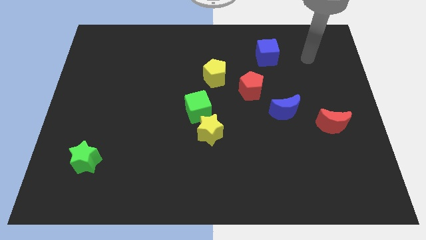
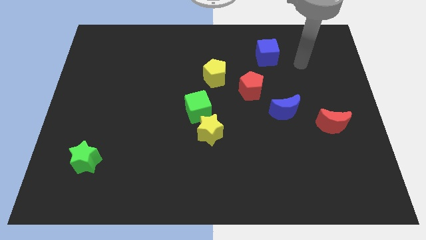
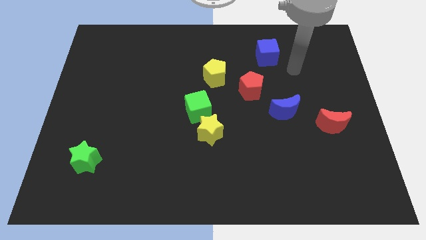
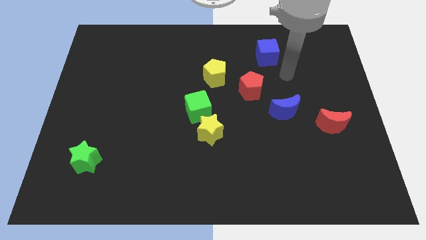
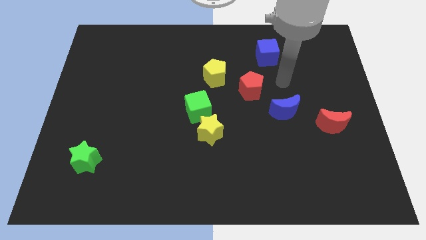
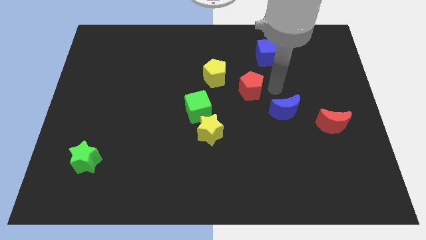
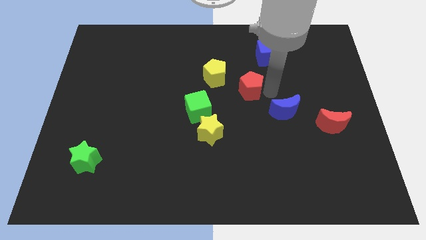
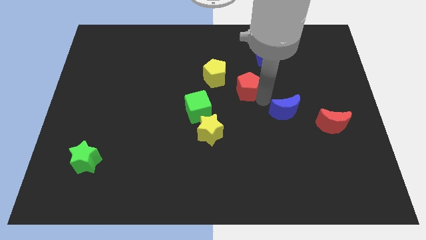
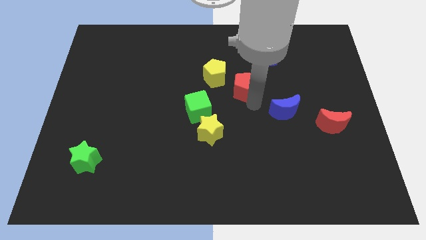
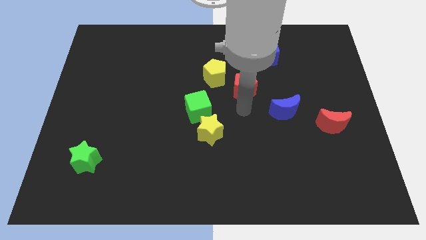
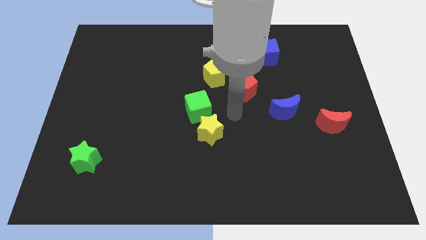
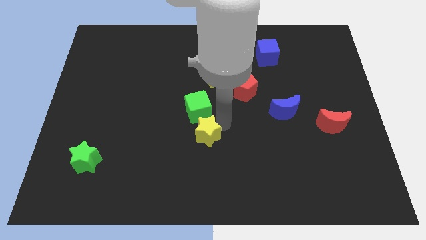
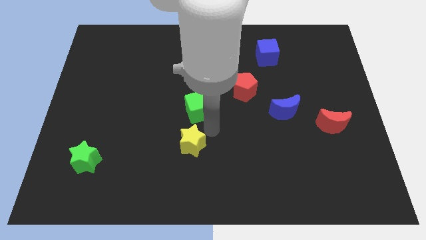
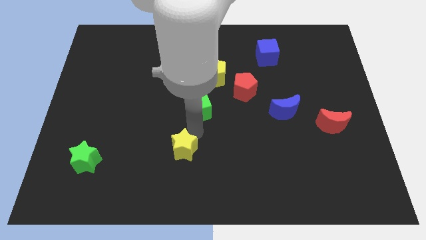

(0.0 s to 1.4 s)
pull the green cube apart from the yellow star

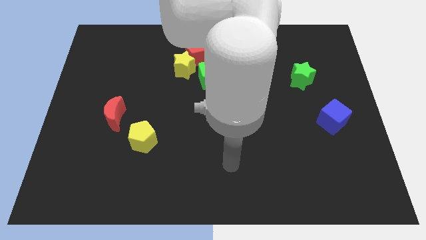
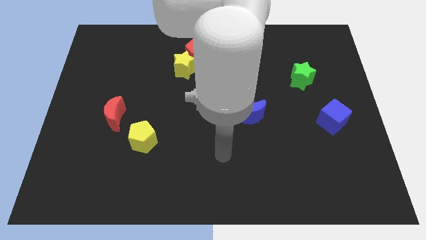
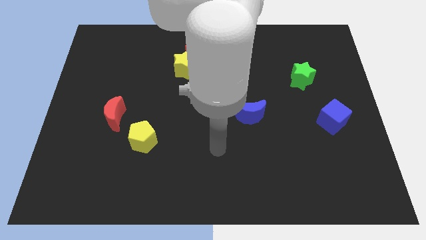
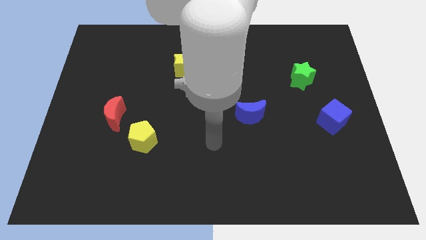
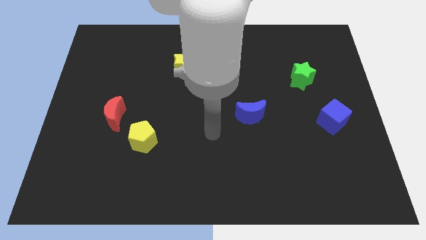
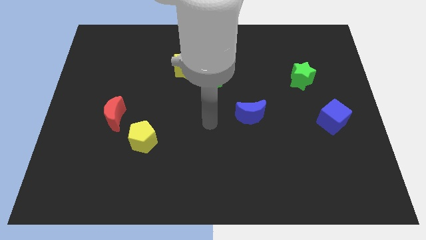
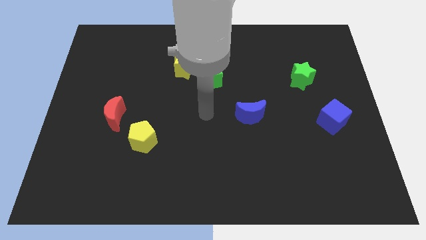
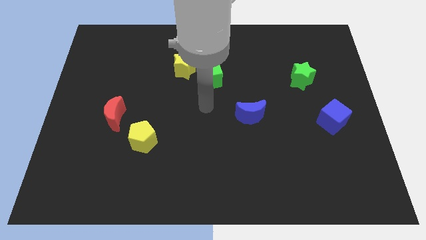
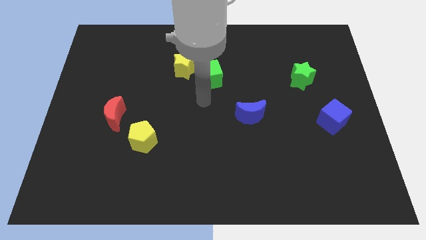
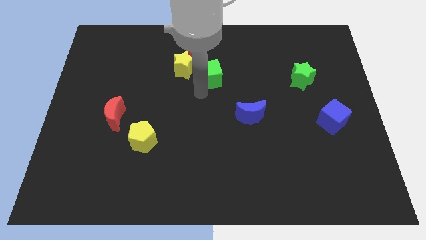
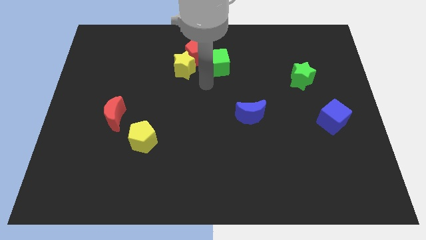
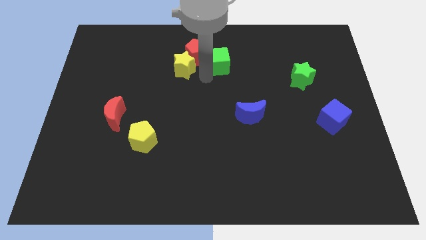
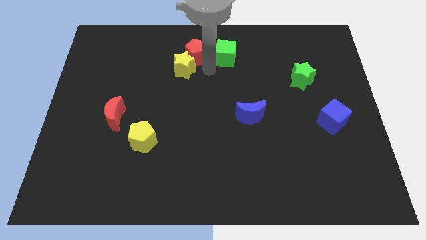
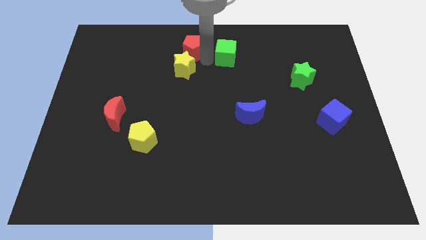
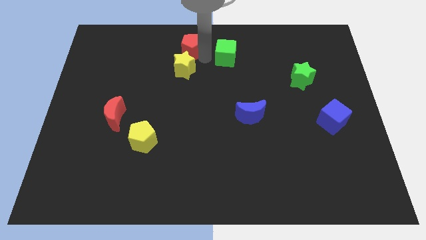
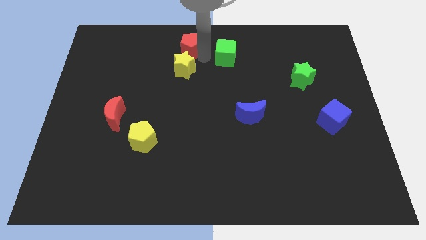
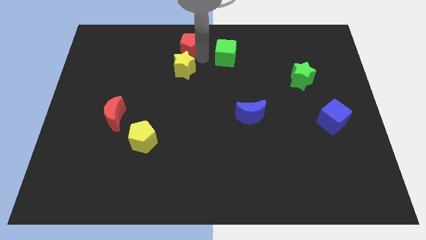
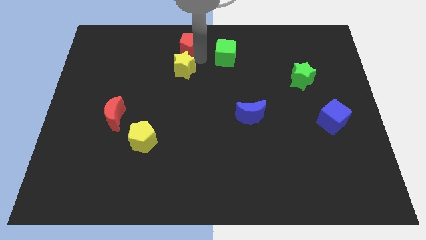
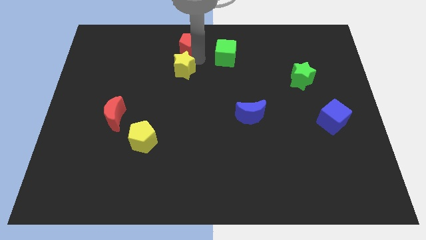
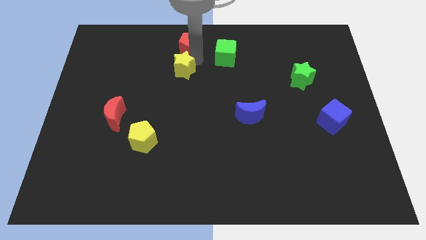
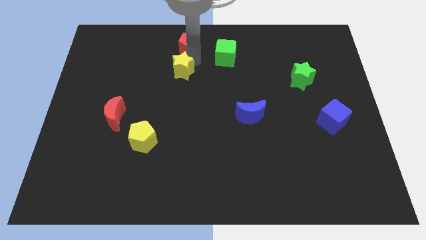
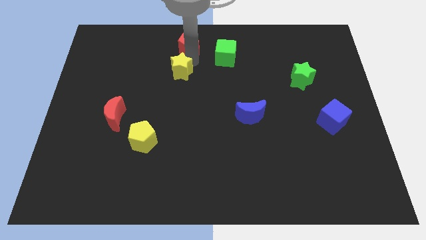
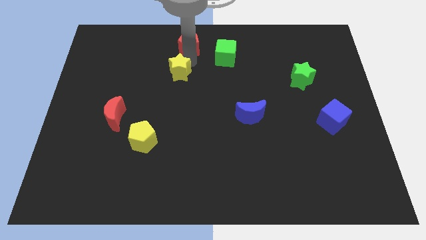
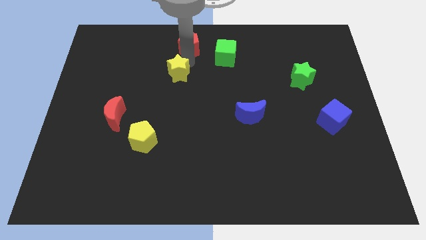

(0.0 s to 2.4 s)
move the yellow star away from the red pentagon and green cube

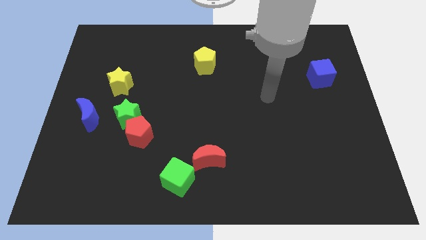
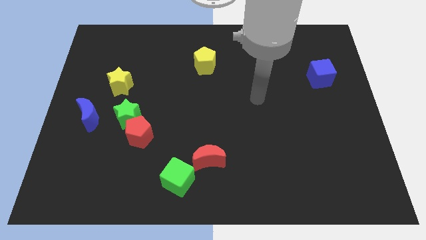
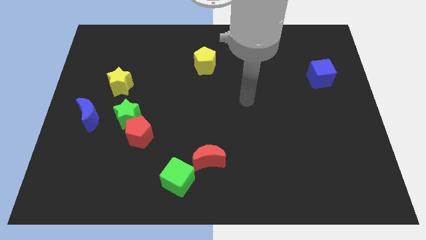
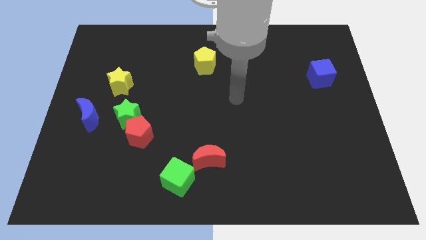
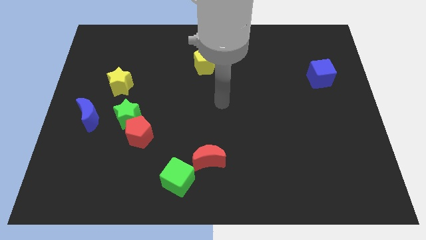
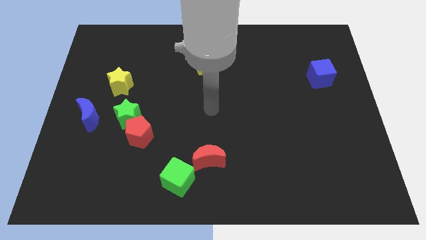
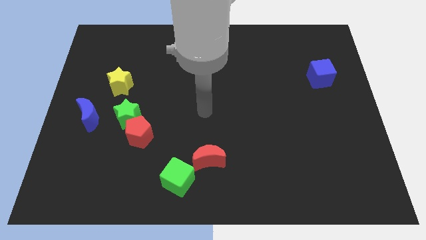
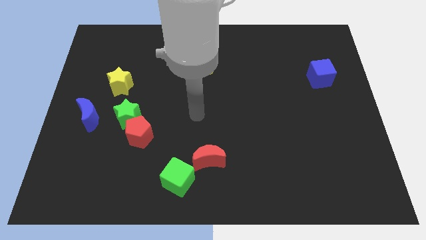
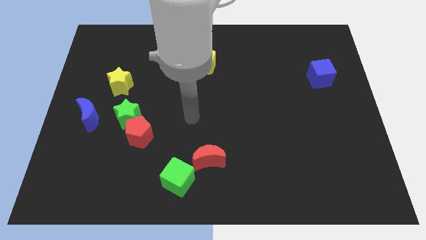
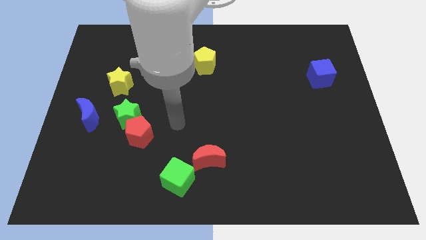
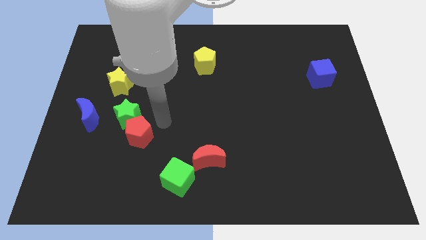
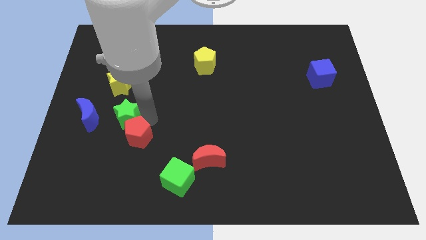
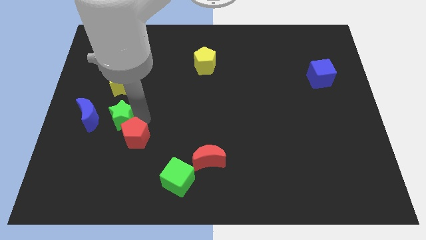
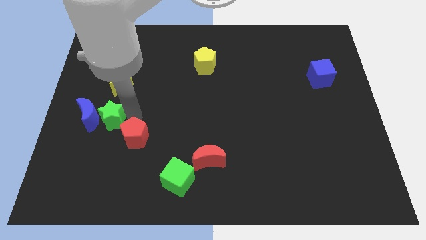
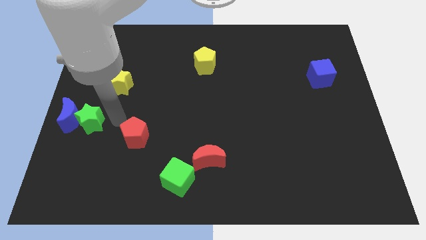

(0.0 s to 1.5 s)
separate the red pentagon from the green star

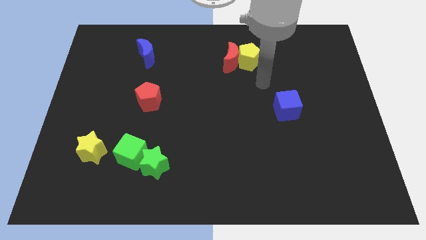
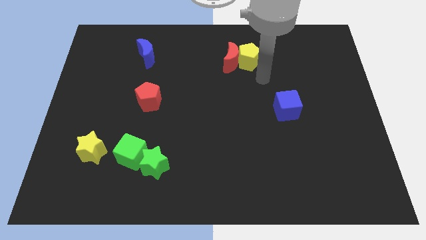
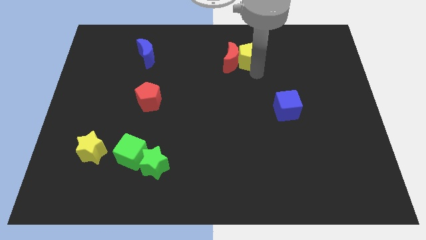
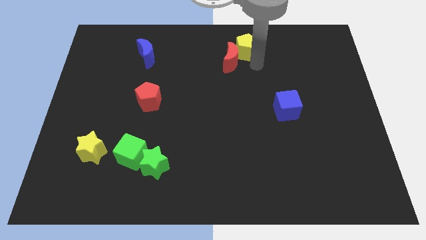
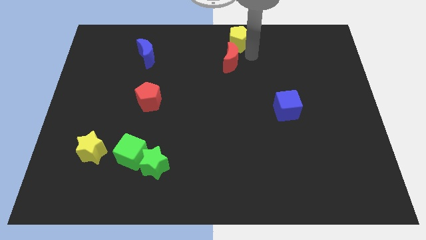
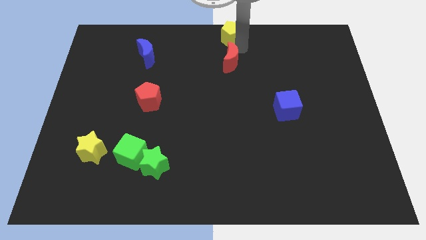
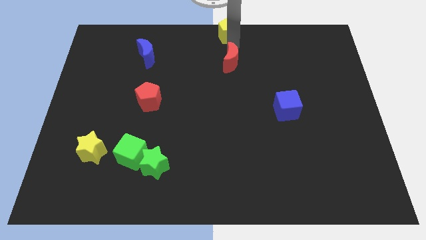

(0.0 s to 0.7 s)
move the red moon away from the yellow pentagon

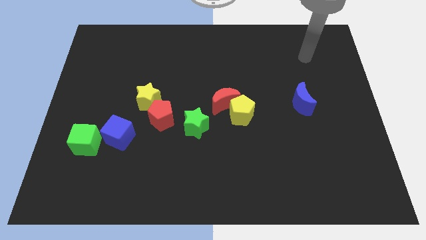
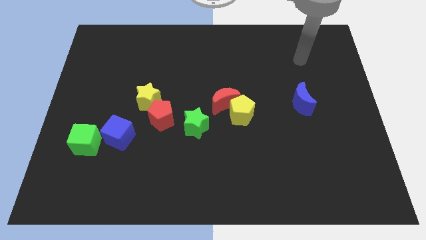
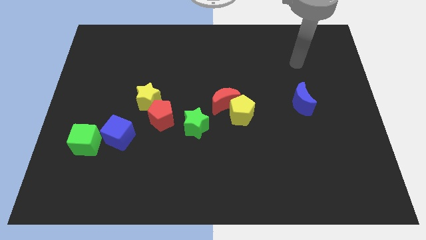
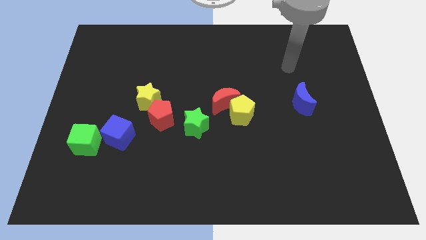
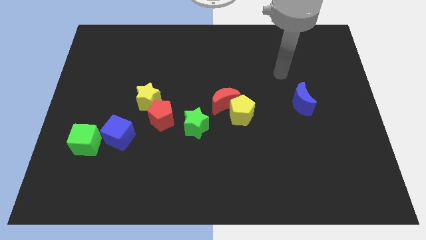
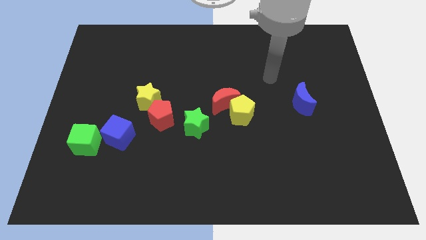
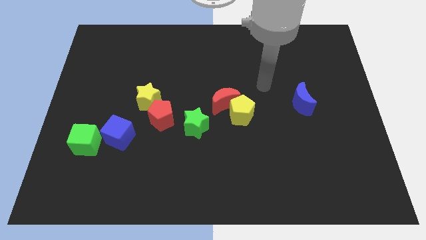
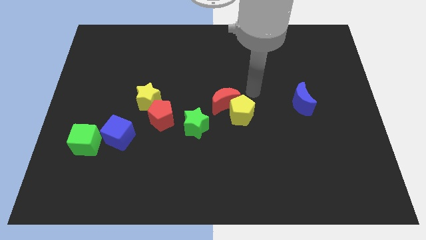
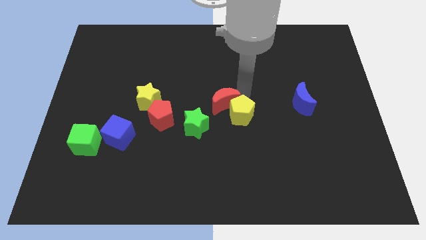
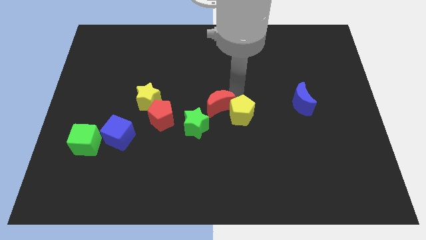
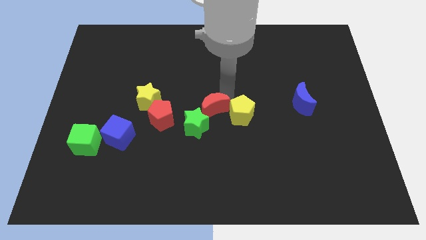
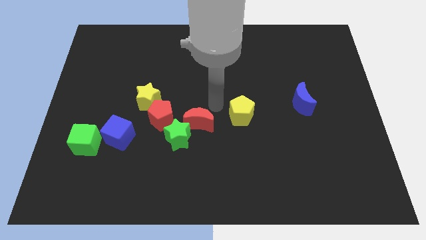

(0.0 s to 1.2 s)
separate the yellow pentagon from the red moon

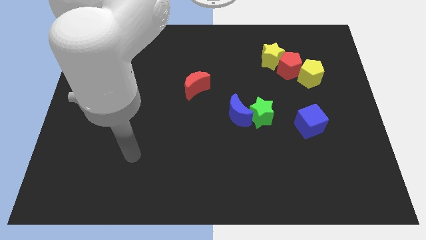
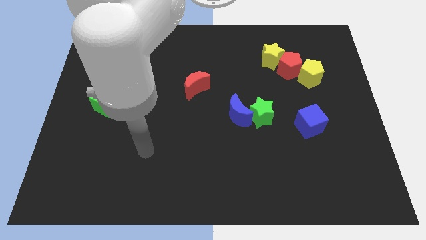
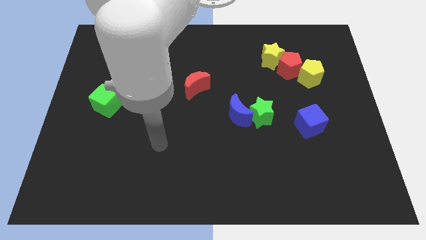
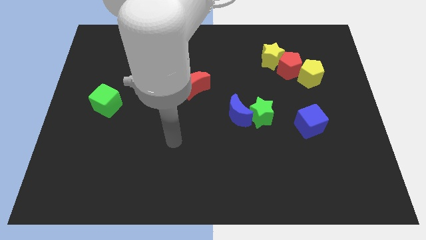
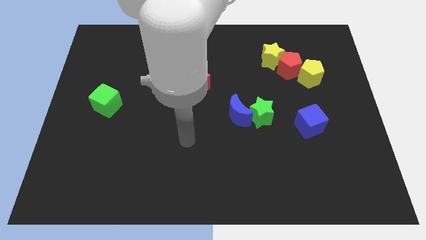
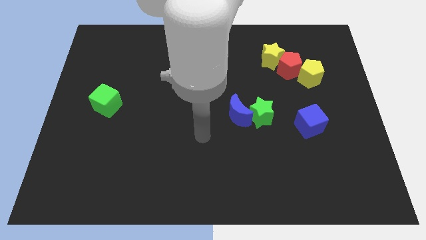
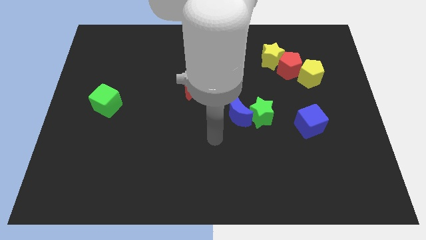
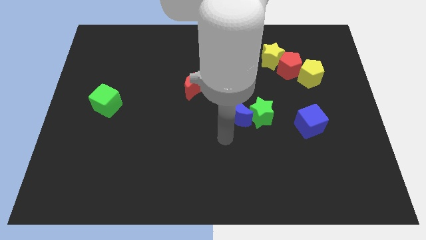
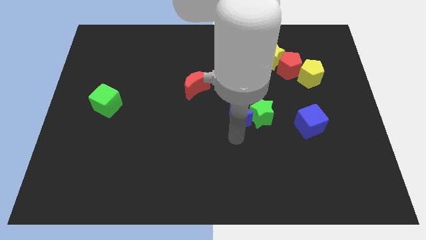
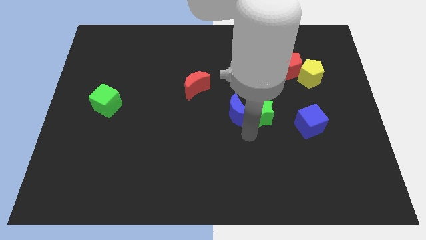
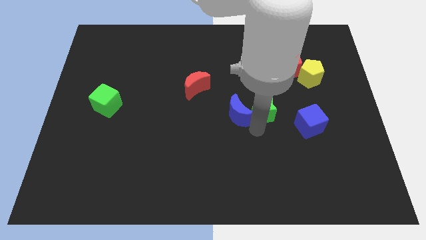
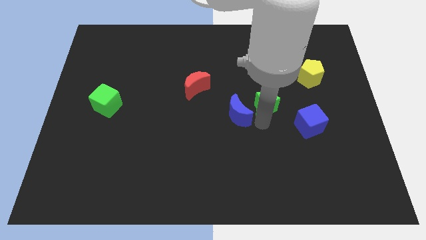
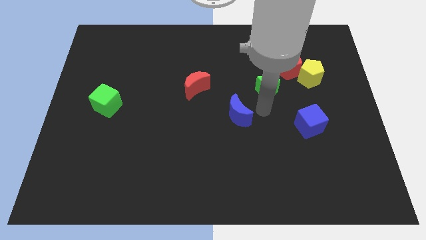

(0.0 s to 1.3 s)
pull the blue moon apart from the green star

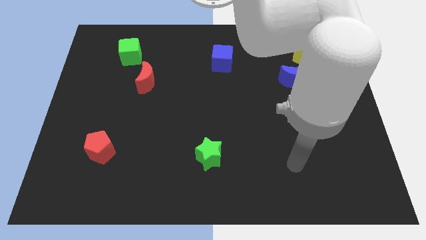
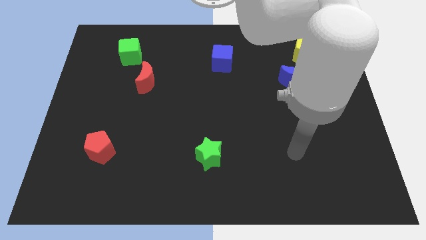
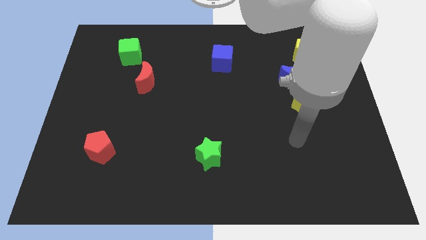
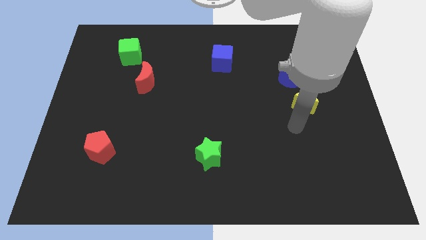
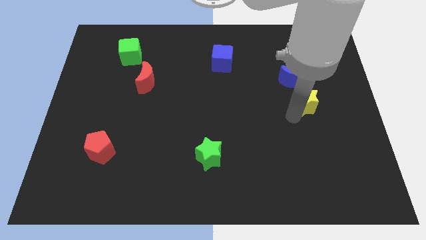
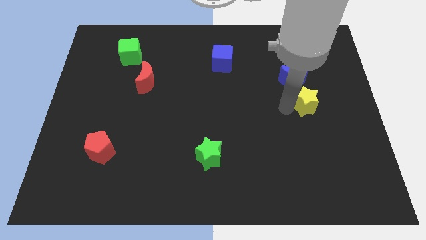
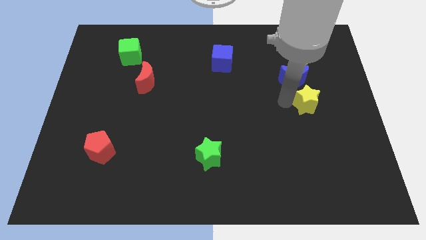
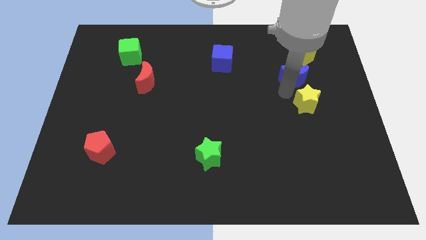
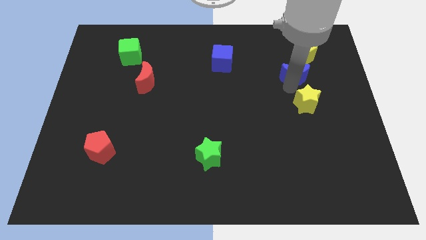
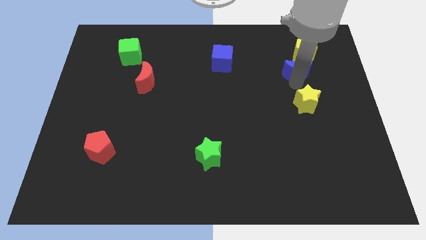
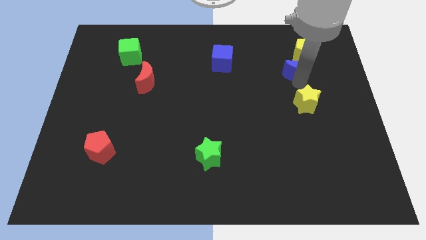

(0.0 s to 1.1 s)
separate the yellow star from the blue moon
